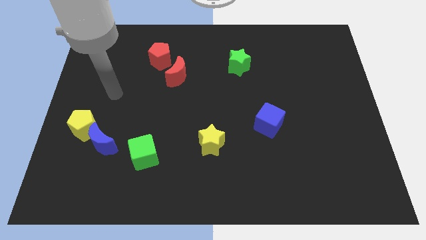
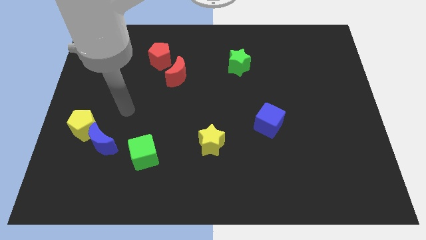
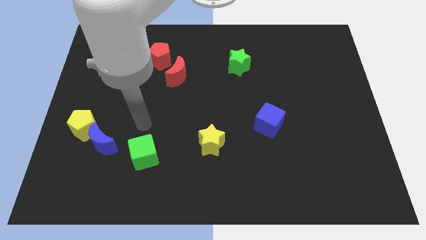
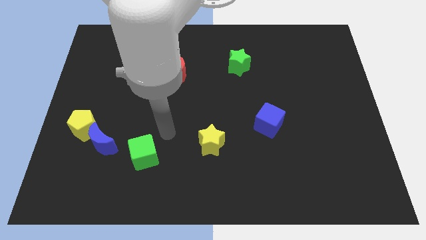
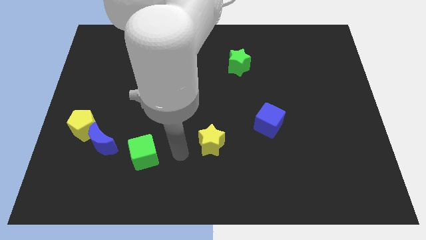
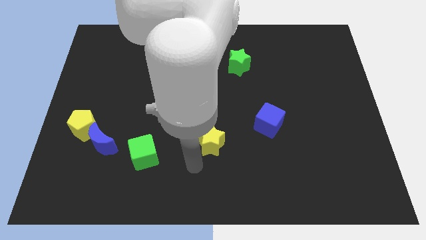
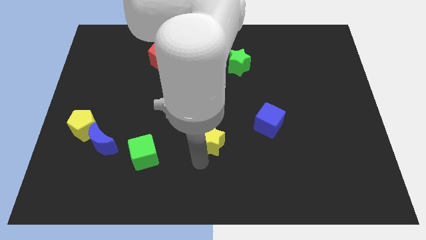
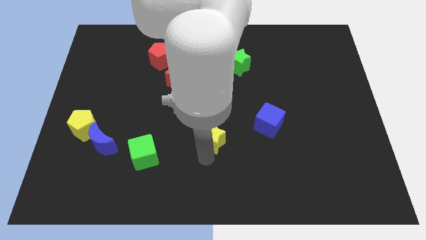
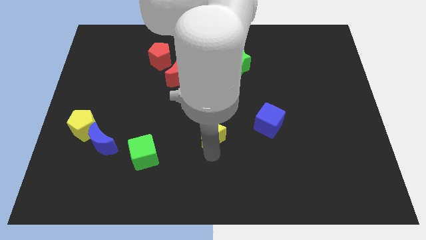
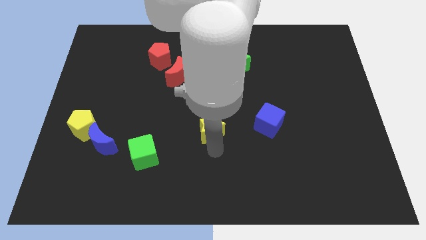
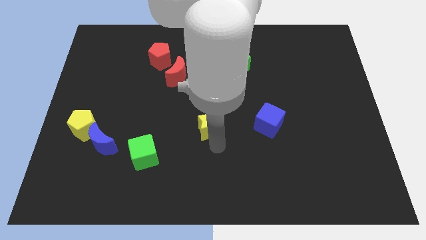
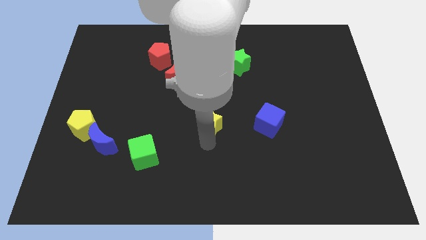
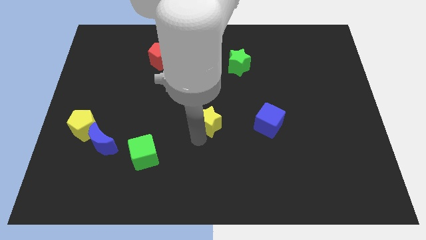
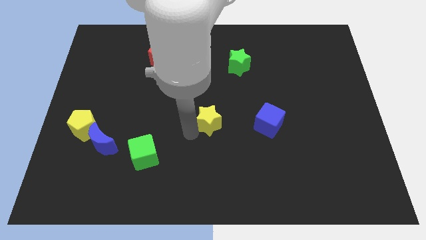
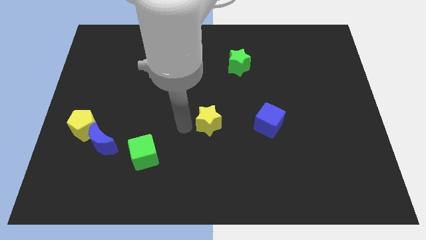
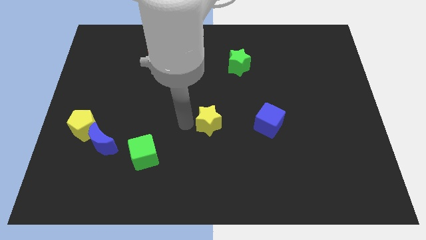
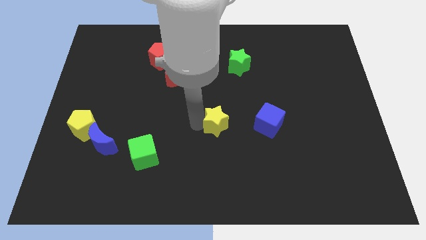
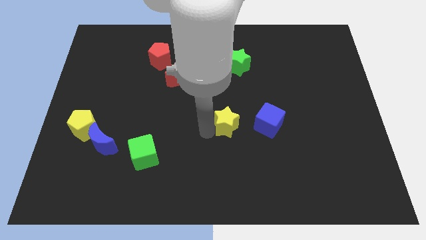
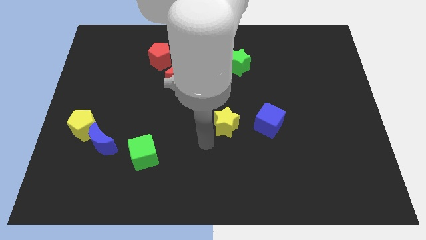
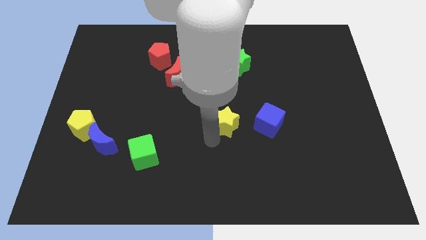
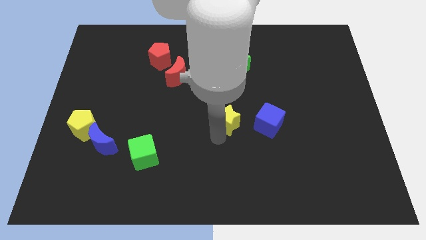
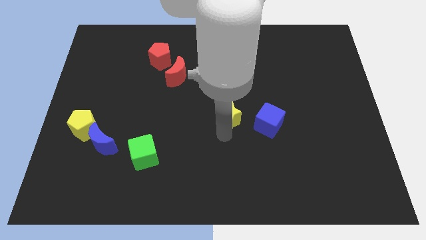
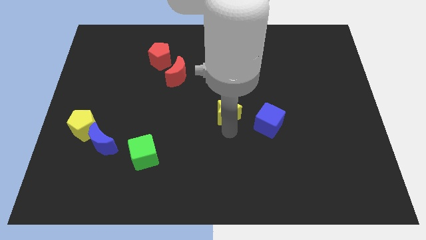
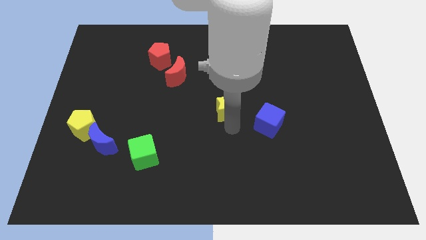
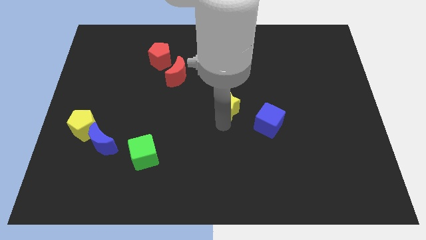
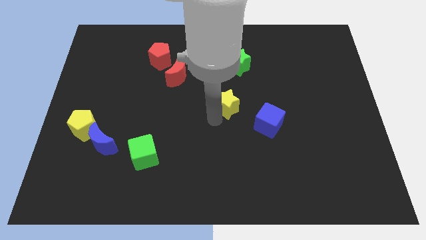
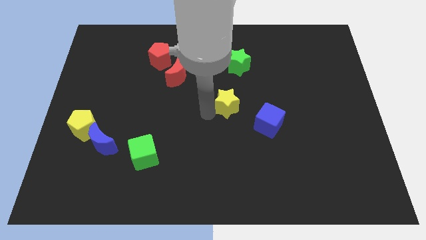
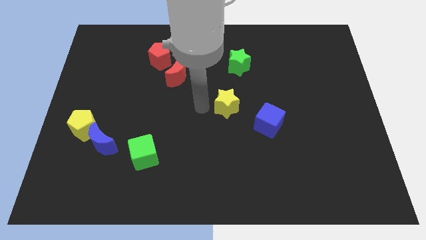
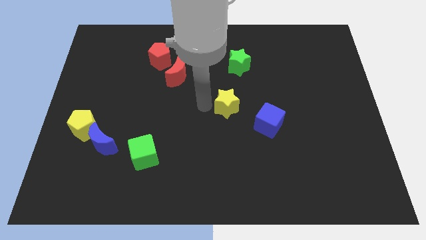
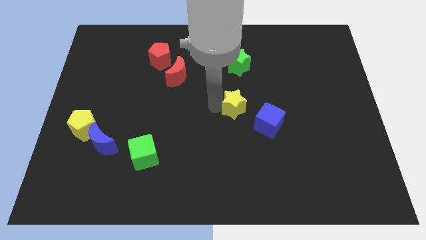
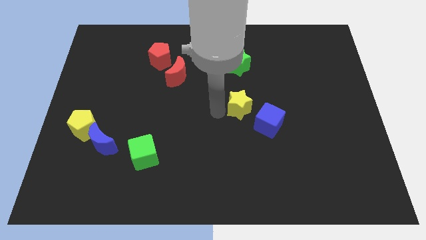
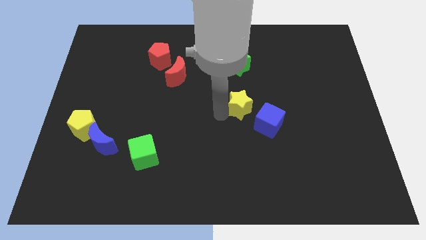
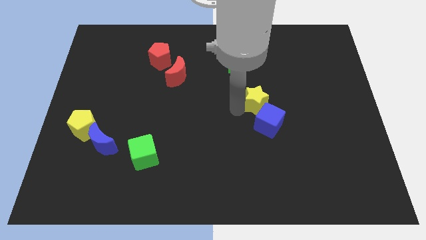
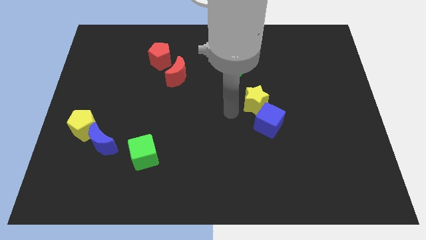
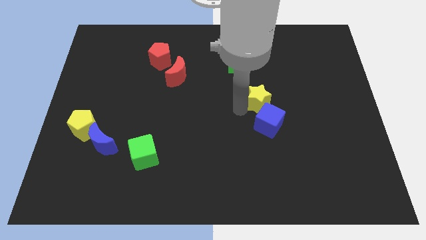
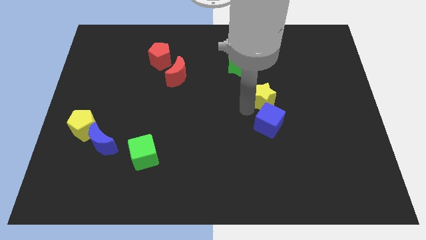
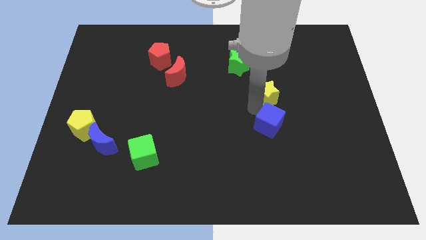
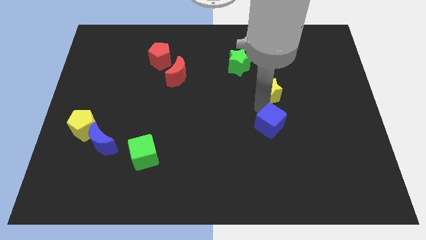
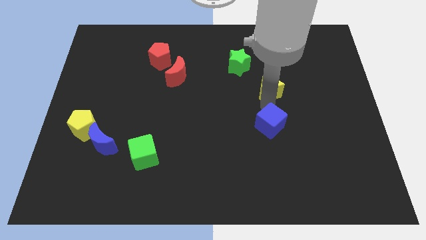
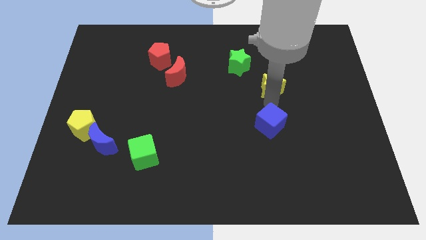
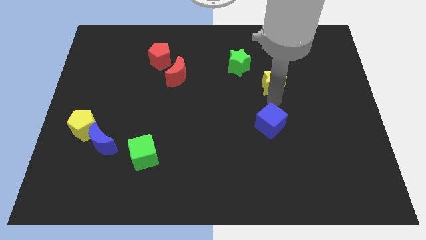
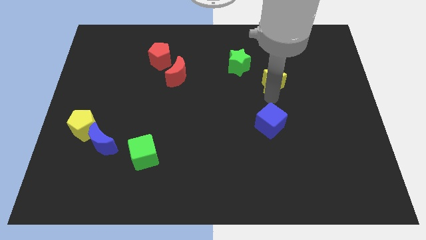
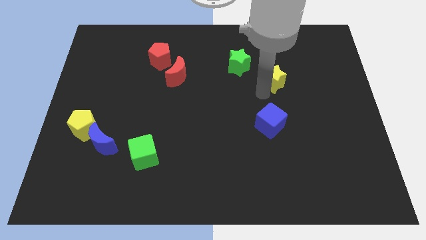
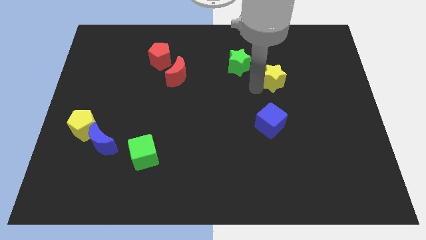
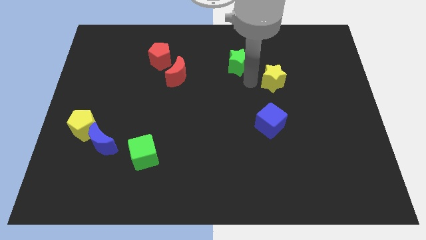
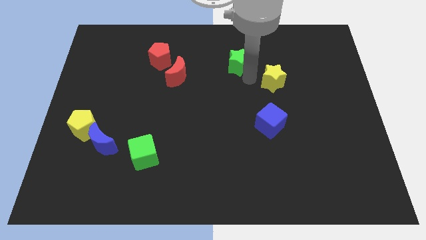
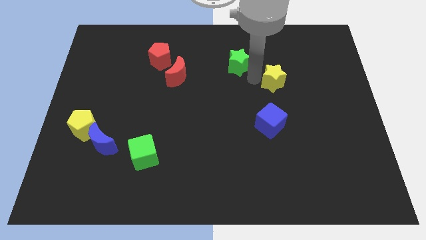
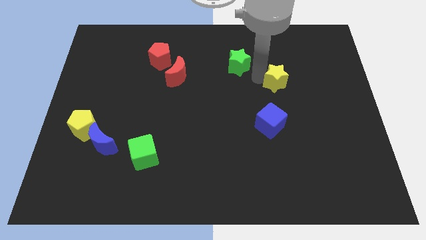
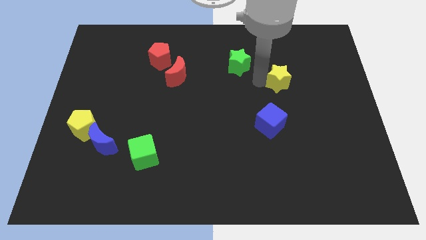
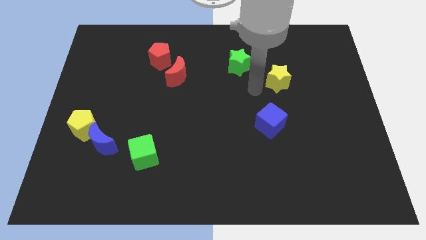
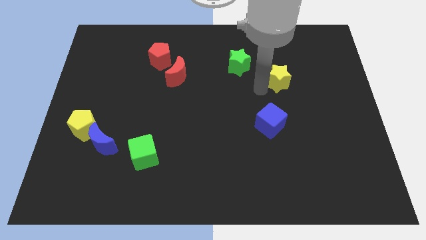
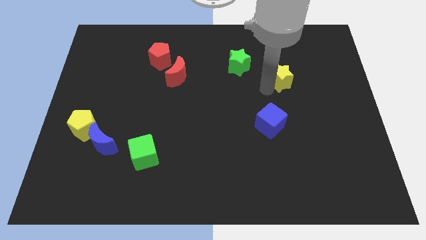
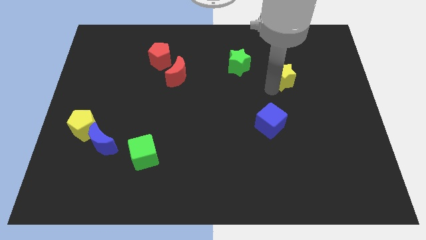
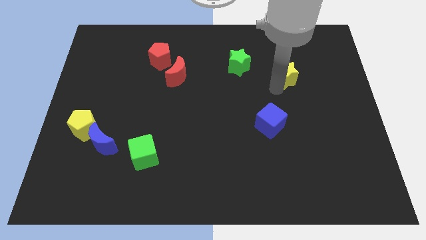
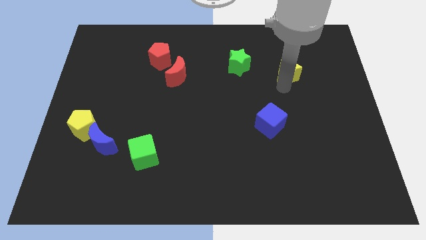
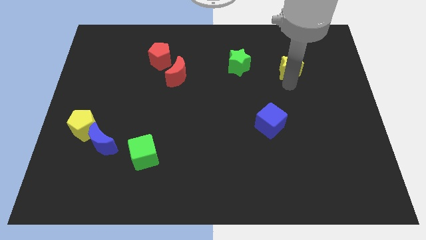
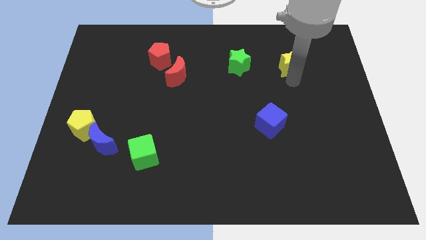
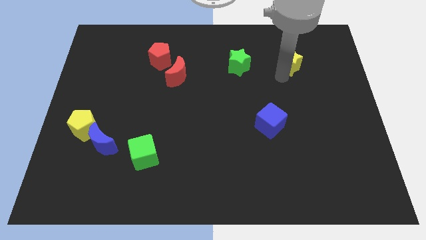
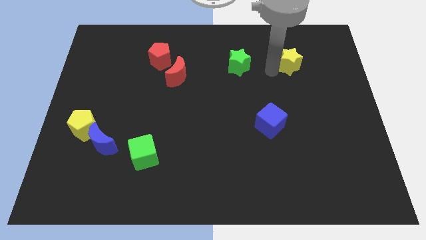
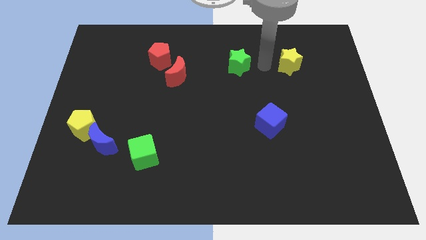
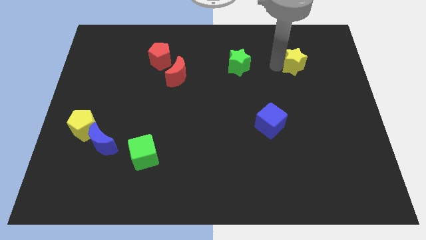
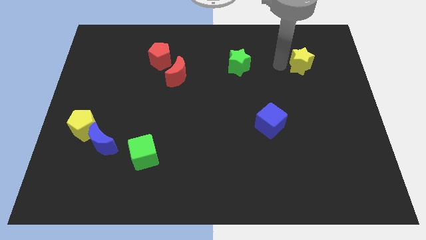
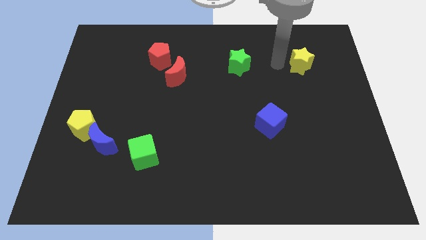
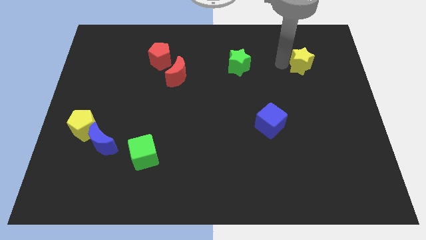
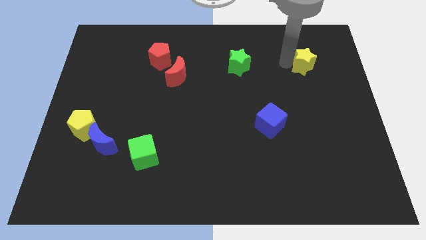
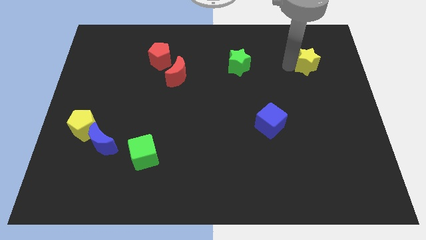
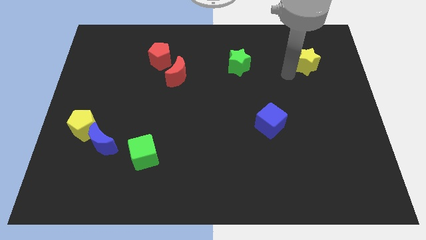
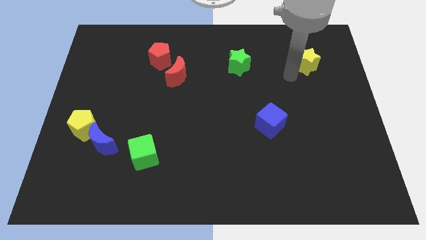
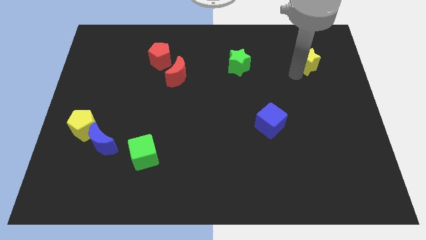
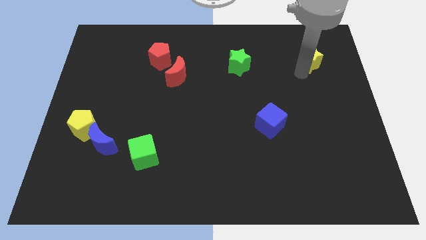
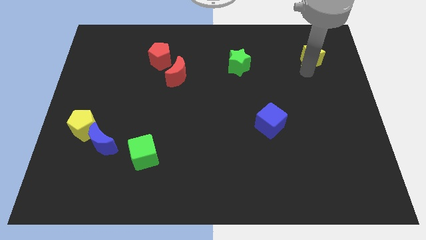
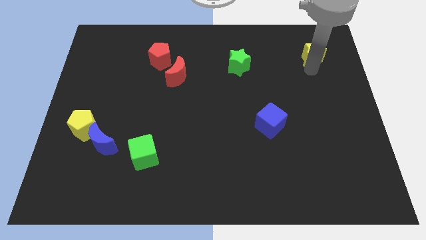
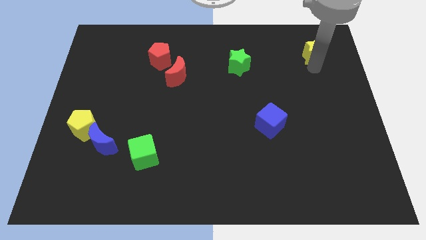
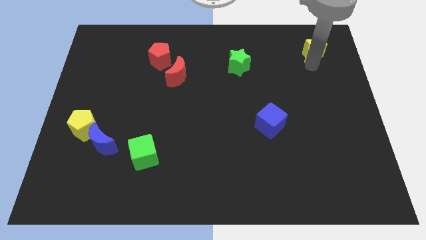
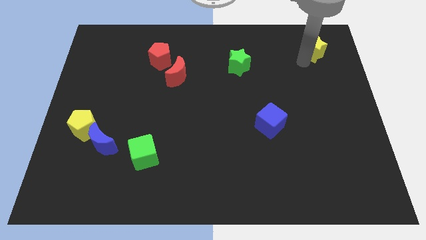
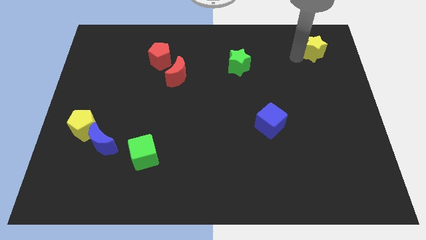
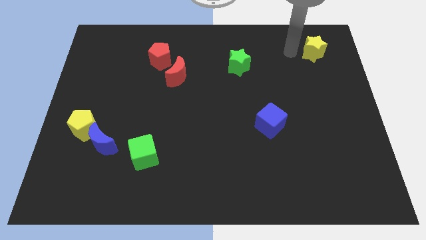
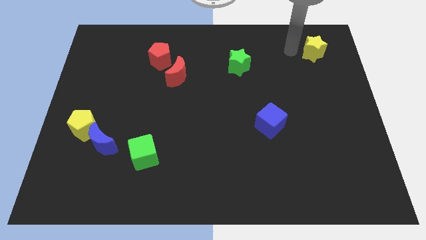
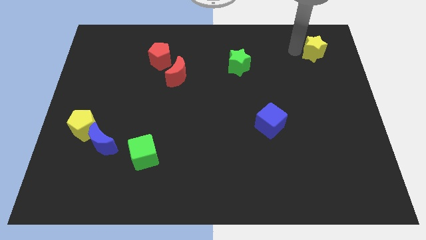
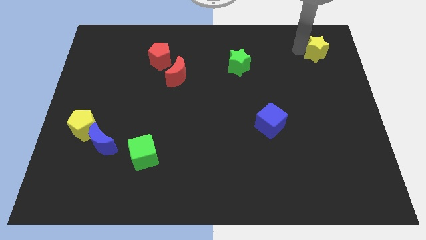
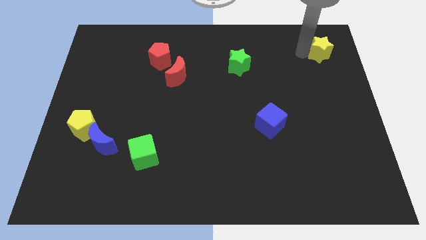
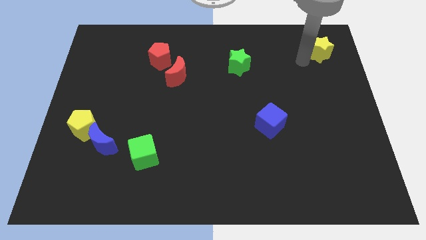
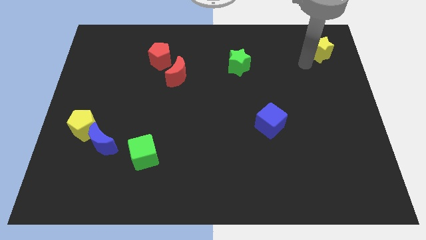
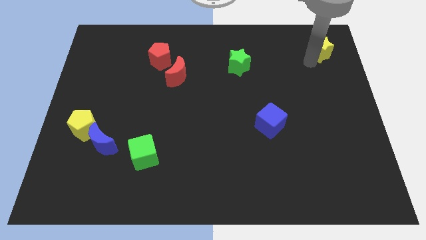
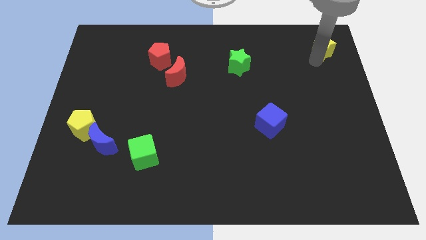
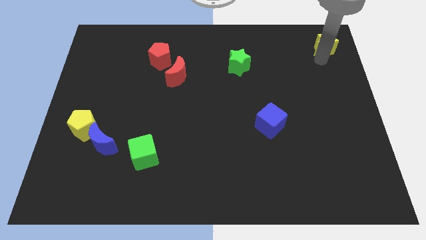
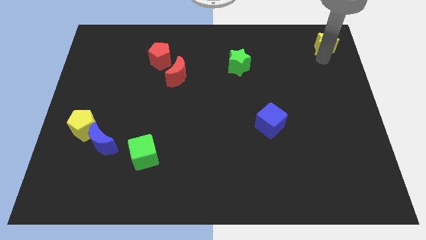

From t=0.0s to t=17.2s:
move the yellow star to the top right corner
